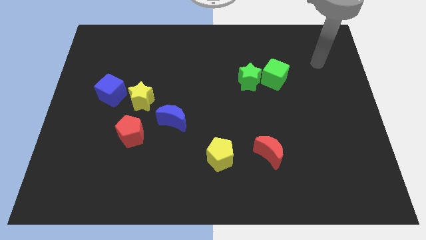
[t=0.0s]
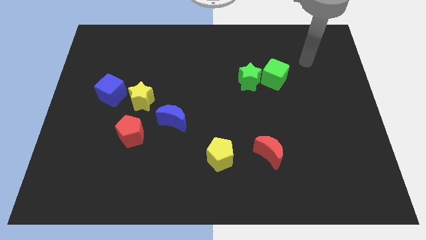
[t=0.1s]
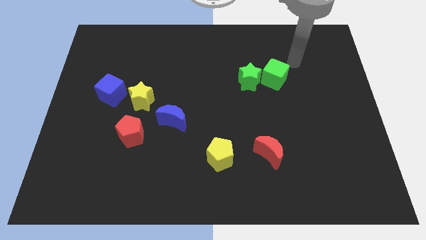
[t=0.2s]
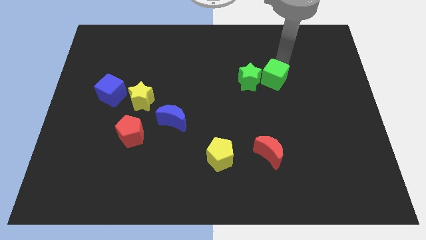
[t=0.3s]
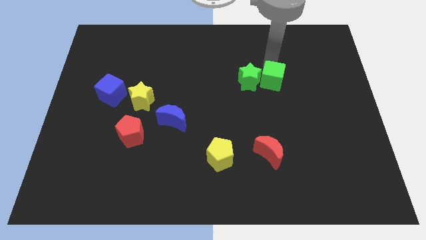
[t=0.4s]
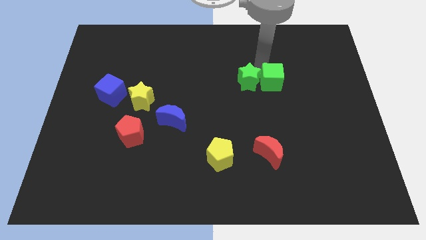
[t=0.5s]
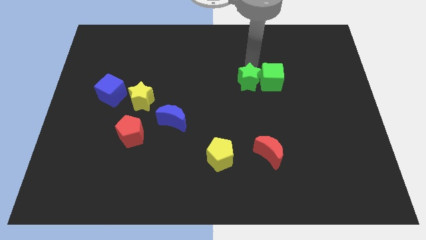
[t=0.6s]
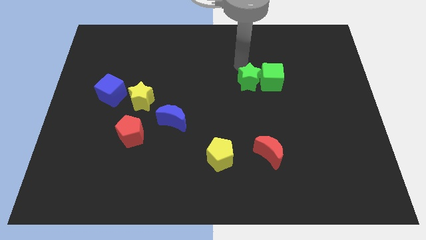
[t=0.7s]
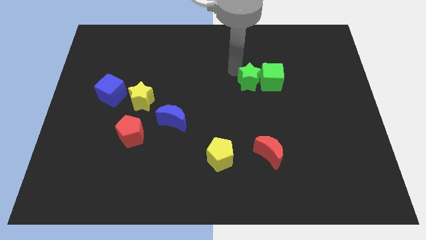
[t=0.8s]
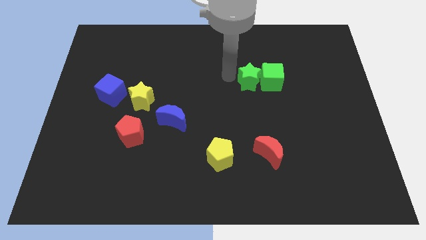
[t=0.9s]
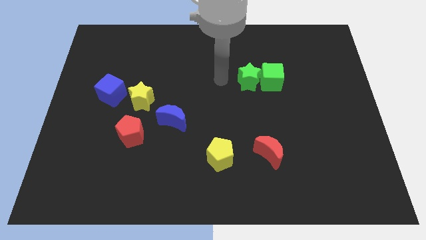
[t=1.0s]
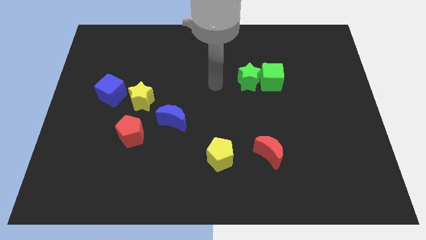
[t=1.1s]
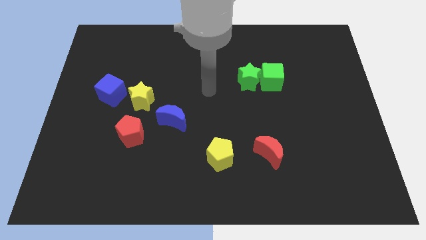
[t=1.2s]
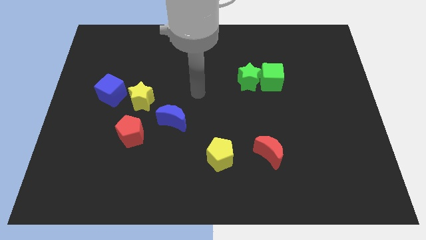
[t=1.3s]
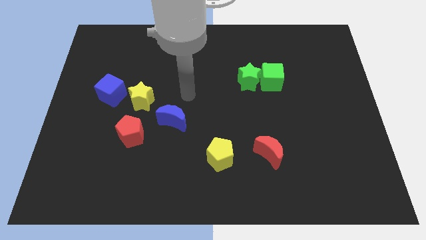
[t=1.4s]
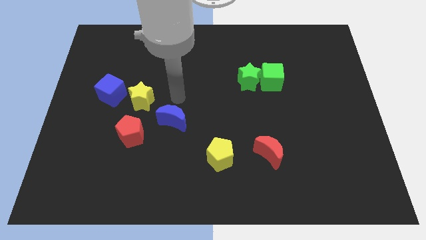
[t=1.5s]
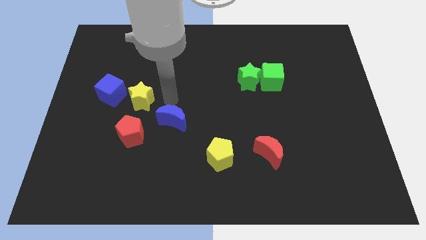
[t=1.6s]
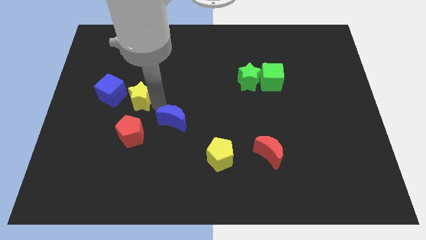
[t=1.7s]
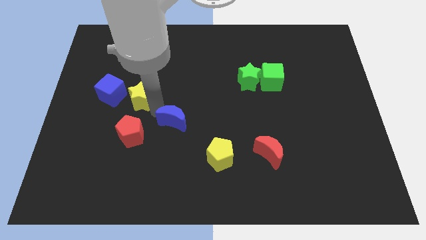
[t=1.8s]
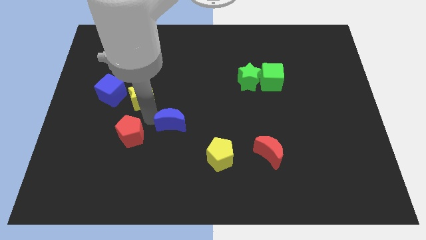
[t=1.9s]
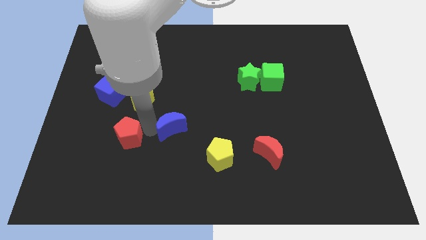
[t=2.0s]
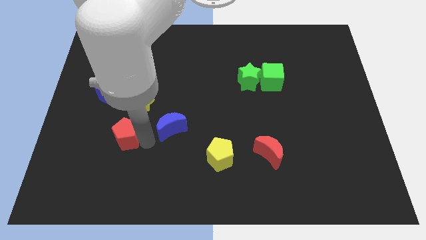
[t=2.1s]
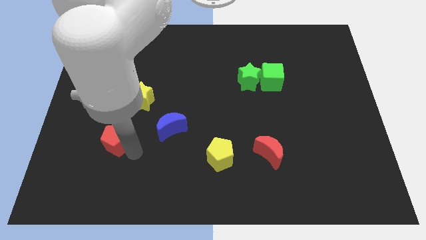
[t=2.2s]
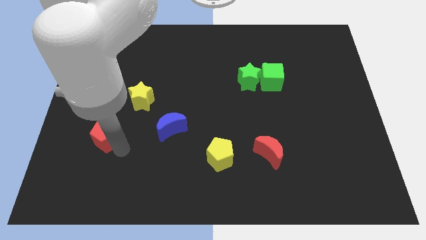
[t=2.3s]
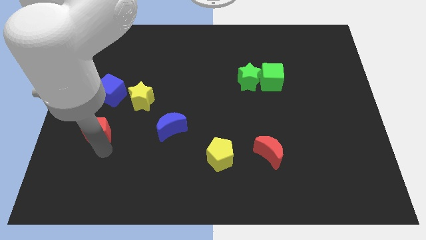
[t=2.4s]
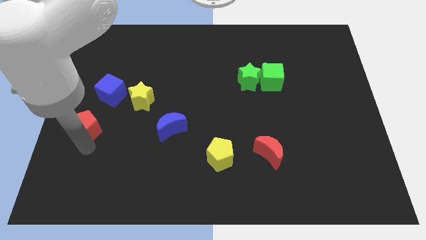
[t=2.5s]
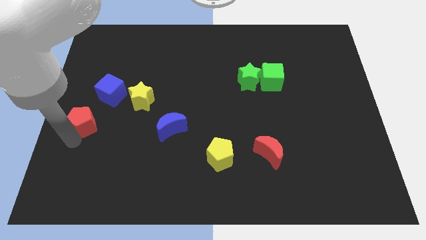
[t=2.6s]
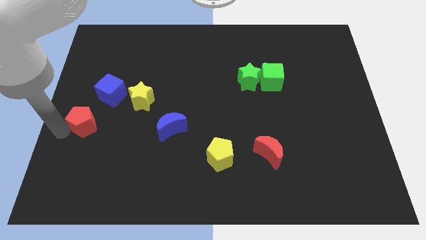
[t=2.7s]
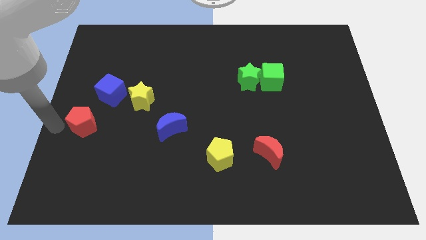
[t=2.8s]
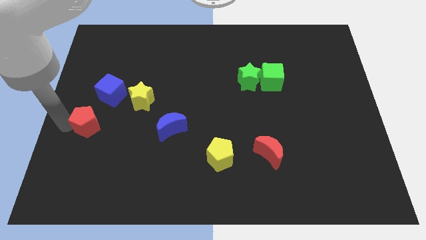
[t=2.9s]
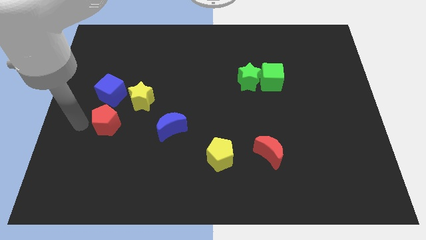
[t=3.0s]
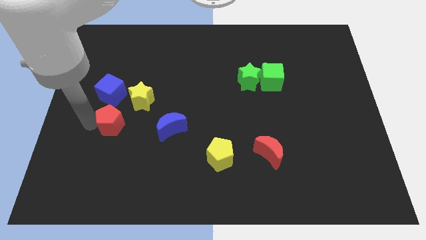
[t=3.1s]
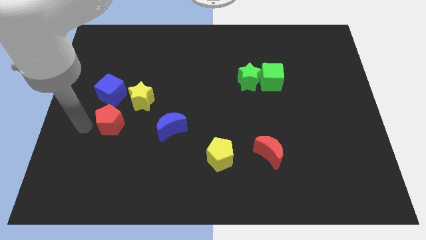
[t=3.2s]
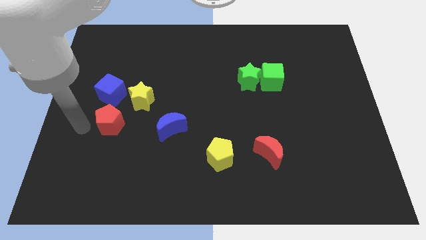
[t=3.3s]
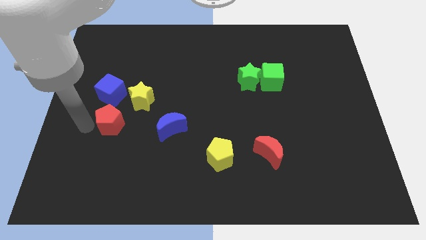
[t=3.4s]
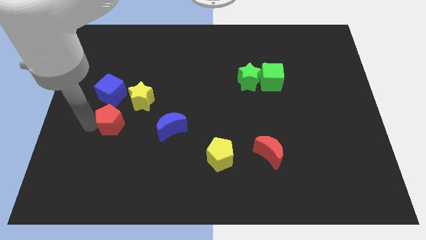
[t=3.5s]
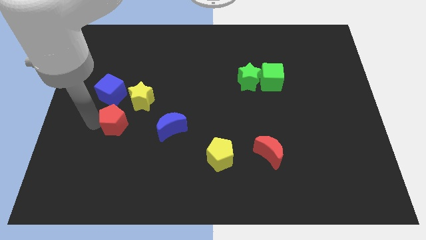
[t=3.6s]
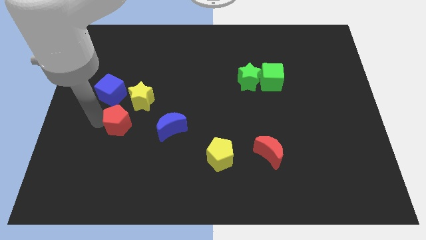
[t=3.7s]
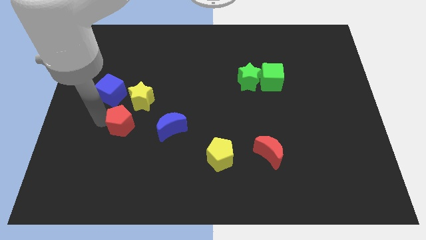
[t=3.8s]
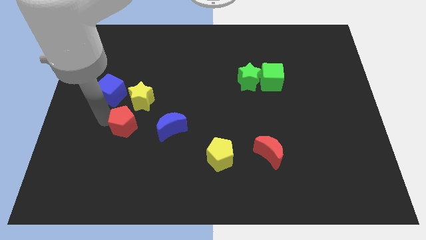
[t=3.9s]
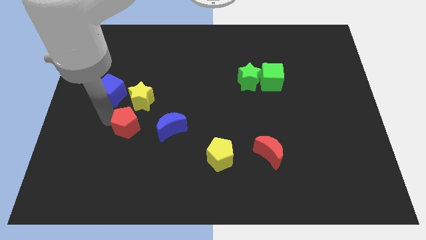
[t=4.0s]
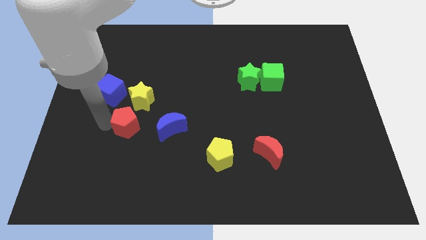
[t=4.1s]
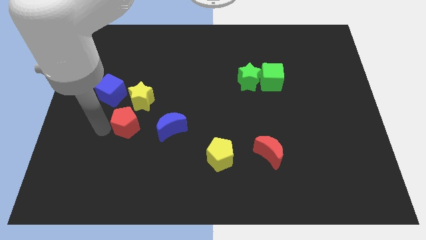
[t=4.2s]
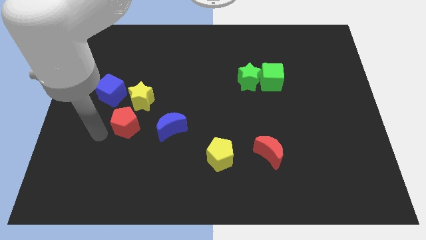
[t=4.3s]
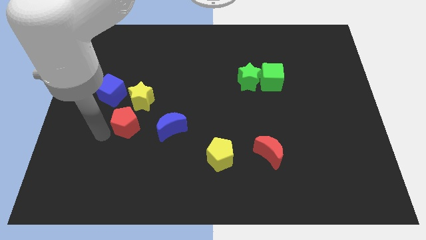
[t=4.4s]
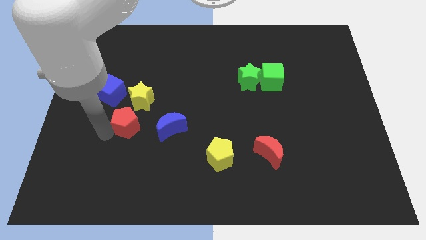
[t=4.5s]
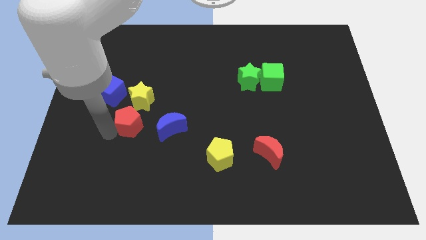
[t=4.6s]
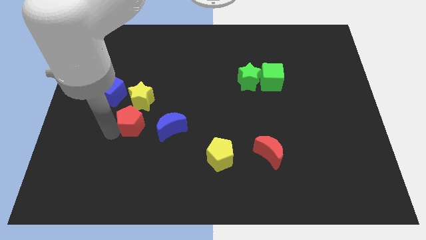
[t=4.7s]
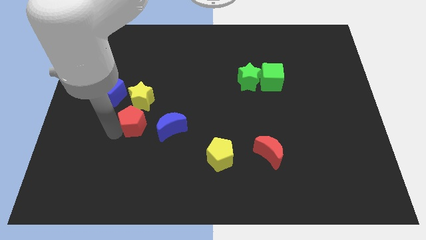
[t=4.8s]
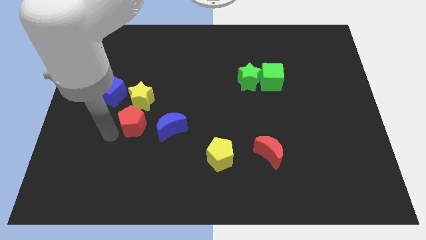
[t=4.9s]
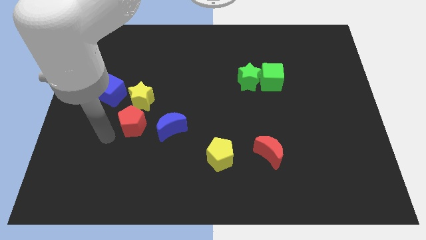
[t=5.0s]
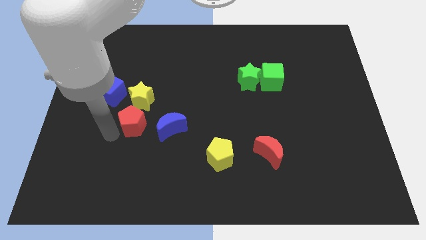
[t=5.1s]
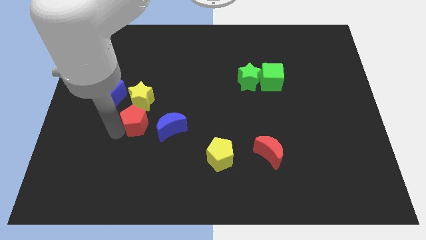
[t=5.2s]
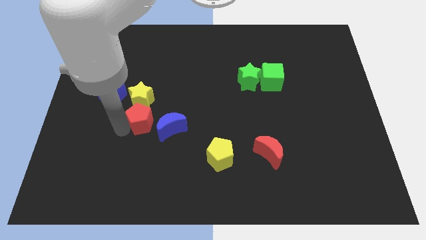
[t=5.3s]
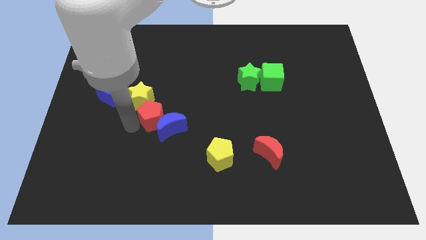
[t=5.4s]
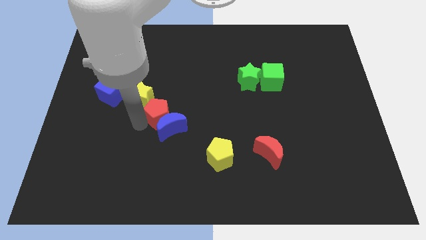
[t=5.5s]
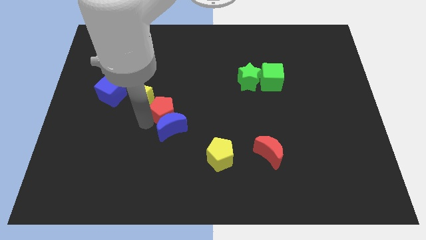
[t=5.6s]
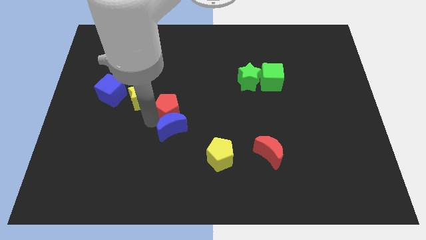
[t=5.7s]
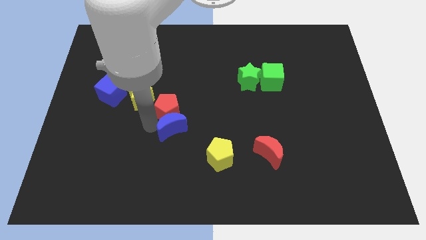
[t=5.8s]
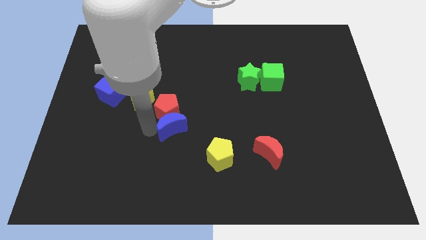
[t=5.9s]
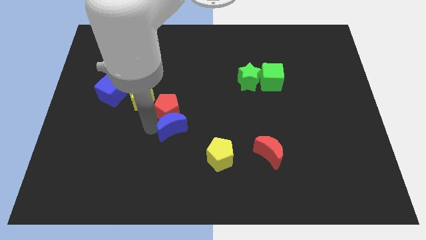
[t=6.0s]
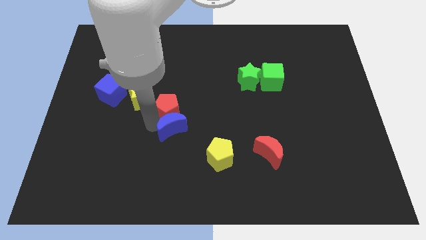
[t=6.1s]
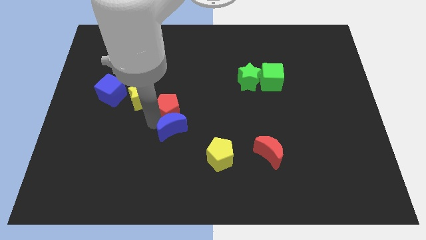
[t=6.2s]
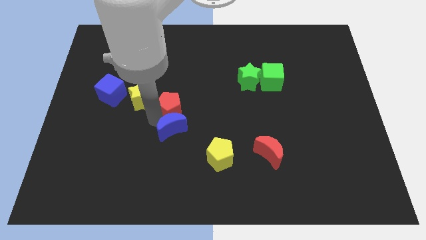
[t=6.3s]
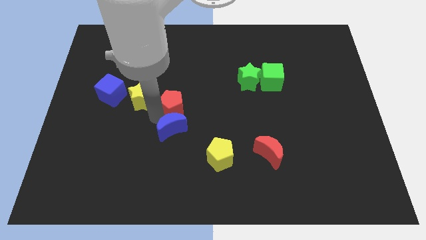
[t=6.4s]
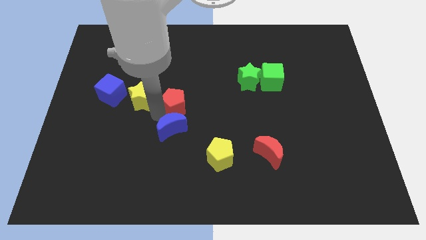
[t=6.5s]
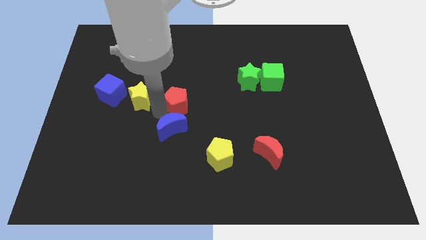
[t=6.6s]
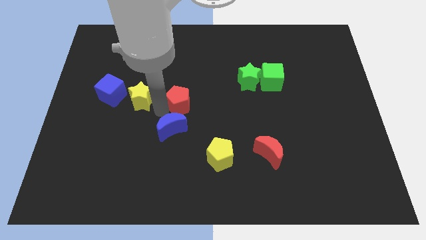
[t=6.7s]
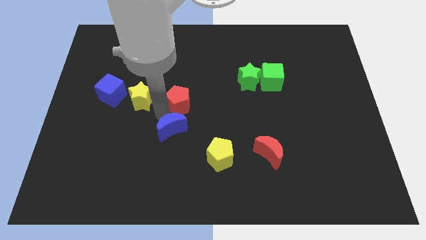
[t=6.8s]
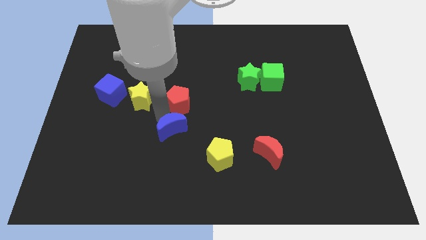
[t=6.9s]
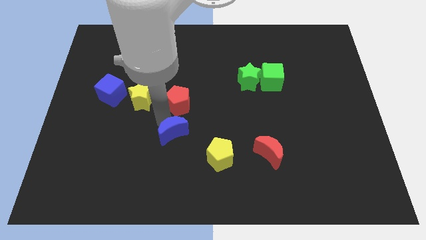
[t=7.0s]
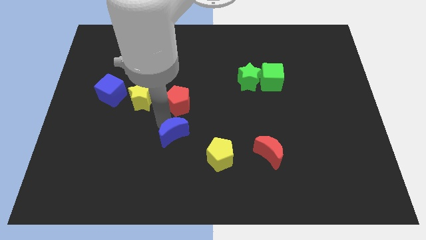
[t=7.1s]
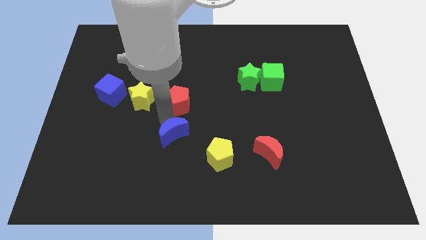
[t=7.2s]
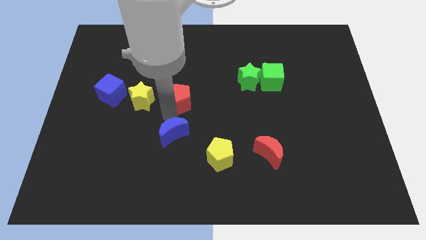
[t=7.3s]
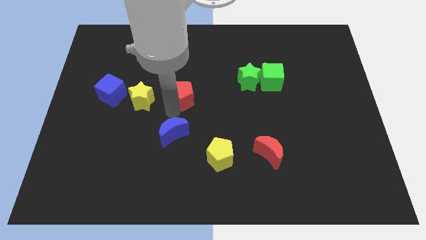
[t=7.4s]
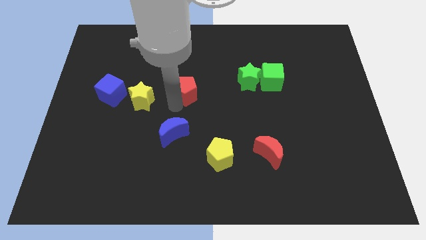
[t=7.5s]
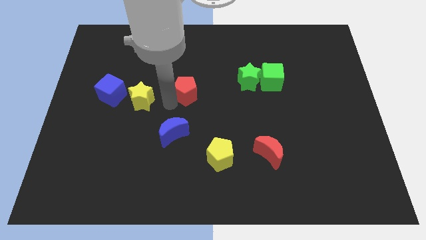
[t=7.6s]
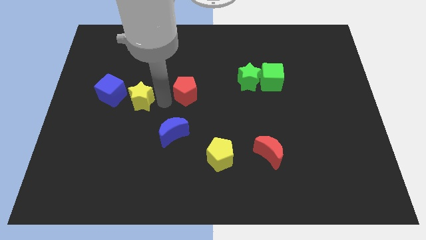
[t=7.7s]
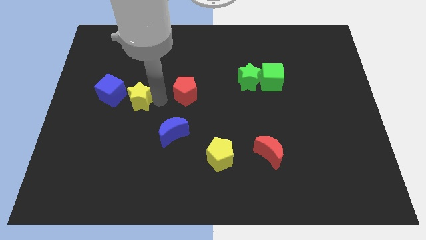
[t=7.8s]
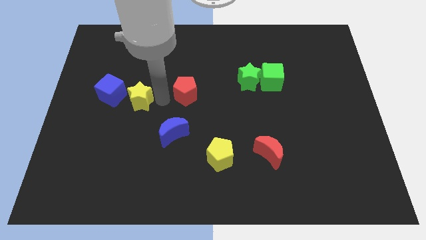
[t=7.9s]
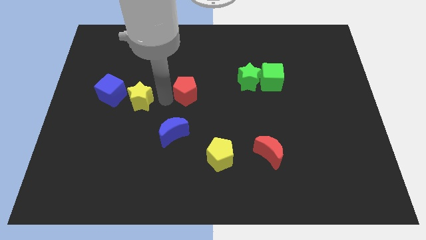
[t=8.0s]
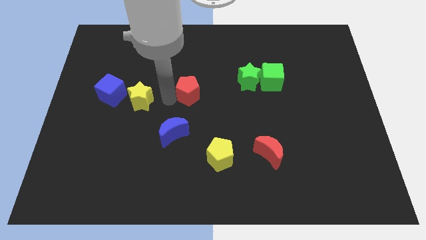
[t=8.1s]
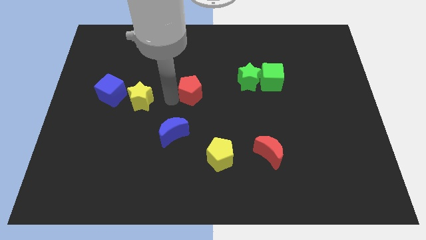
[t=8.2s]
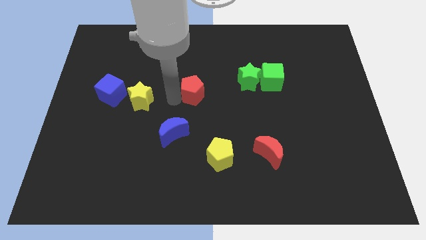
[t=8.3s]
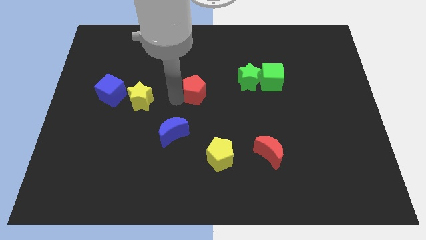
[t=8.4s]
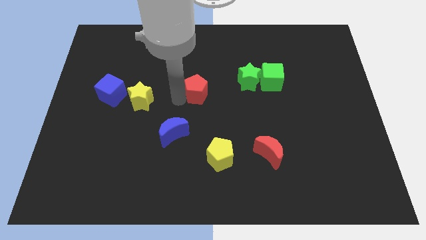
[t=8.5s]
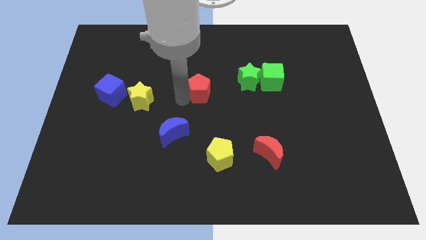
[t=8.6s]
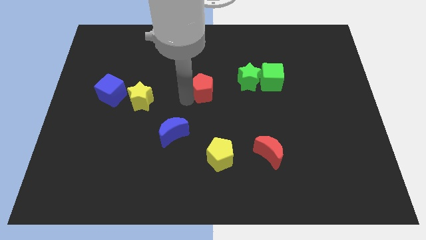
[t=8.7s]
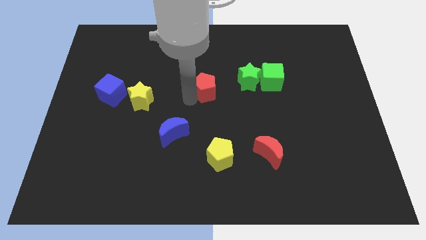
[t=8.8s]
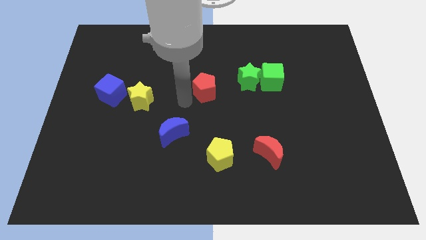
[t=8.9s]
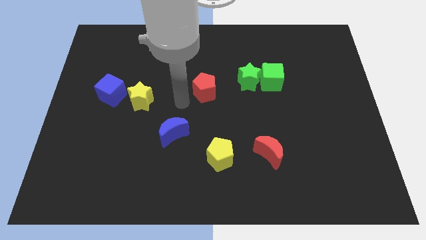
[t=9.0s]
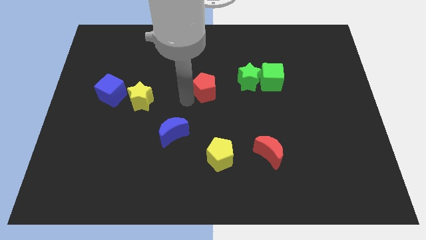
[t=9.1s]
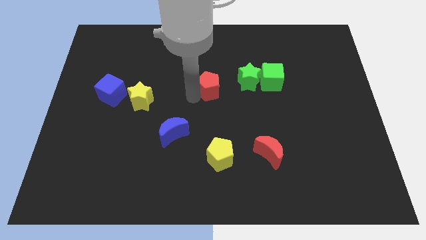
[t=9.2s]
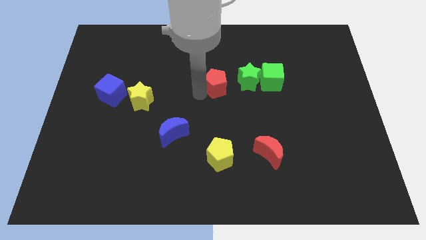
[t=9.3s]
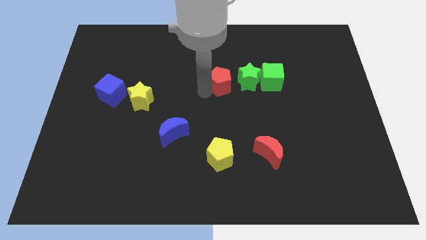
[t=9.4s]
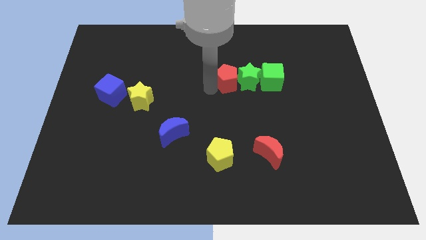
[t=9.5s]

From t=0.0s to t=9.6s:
push the red pentagon towards the green star
